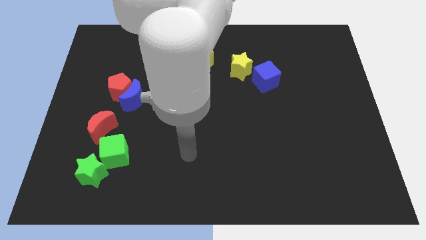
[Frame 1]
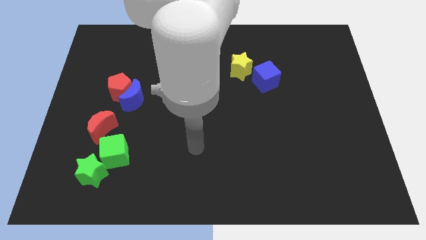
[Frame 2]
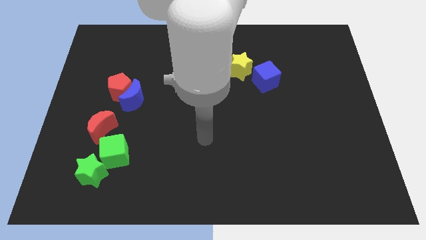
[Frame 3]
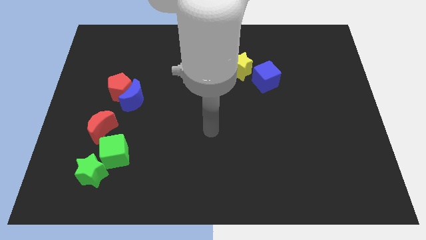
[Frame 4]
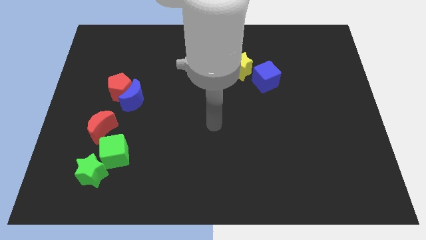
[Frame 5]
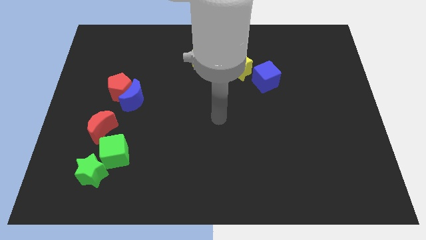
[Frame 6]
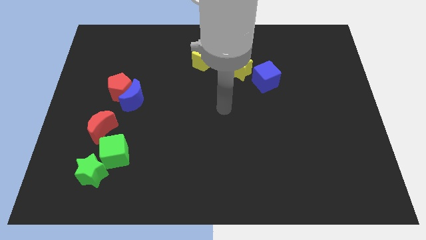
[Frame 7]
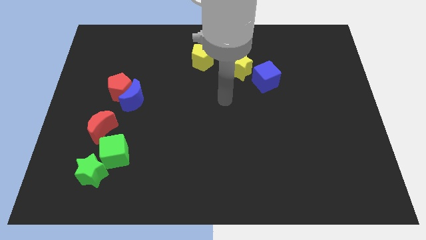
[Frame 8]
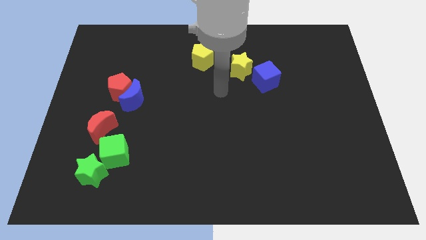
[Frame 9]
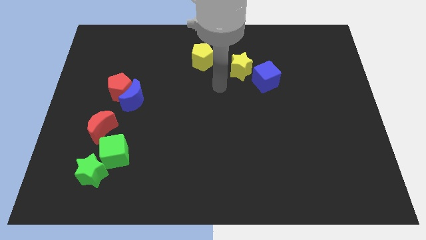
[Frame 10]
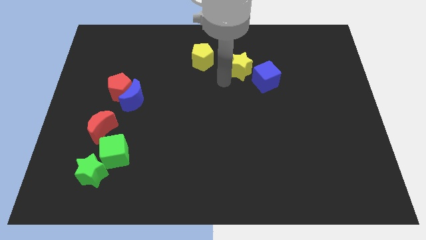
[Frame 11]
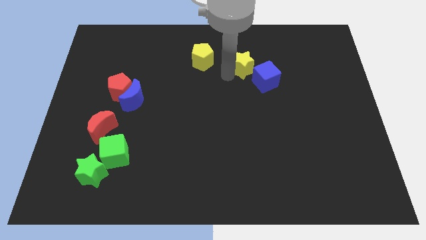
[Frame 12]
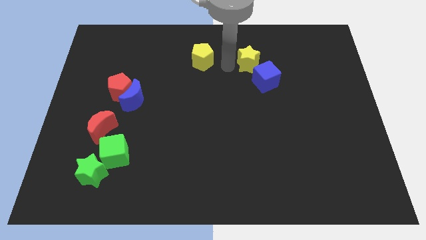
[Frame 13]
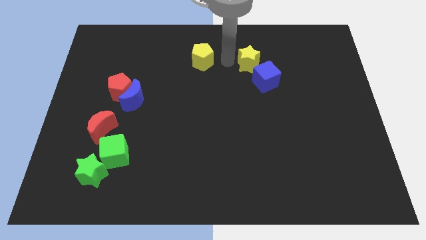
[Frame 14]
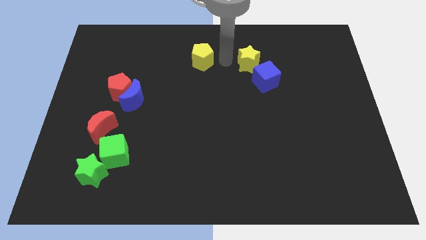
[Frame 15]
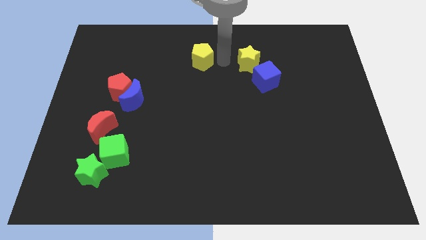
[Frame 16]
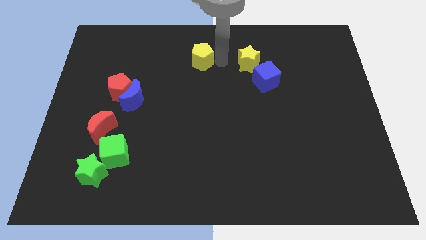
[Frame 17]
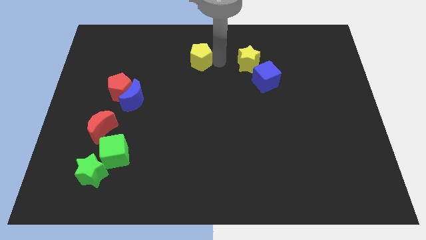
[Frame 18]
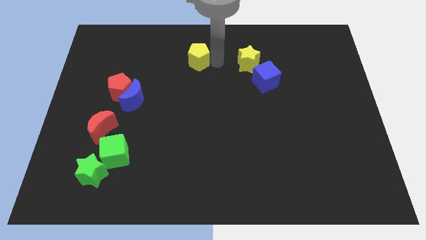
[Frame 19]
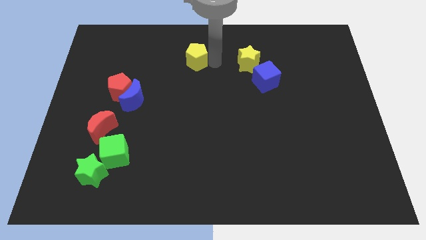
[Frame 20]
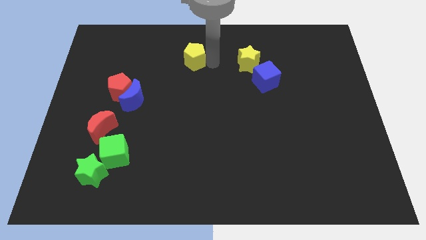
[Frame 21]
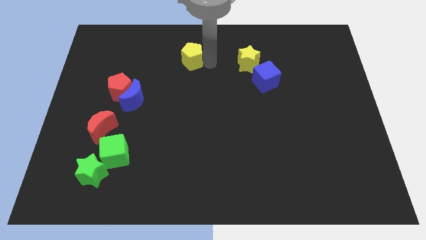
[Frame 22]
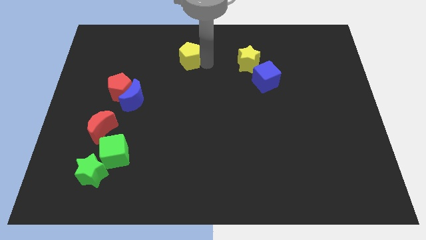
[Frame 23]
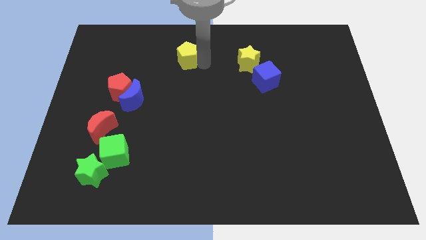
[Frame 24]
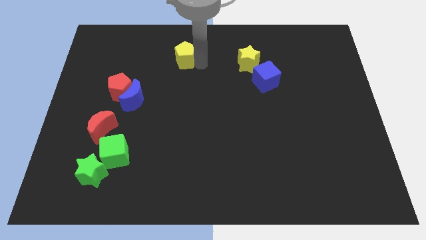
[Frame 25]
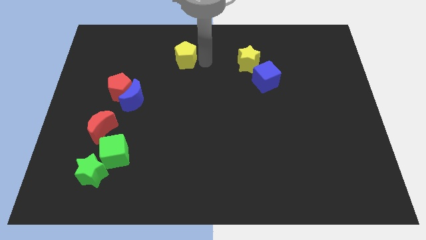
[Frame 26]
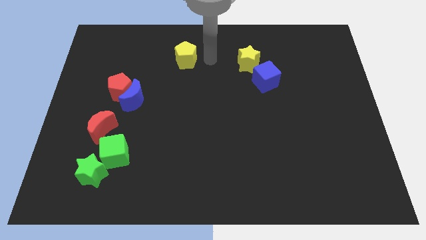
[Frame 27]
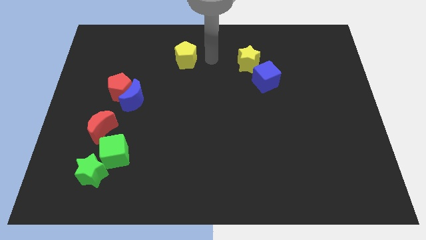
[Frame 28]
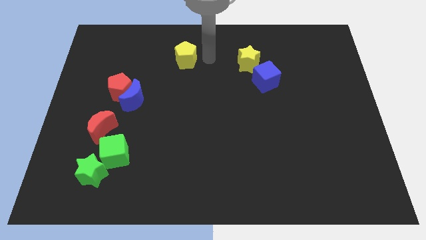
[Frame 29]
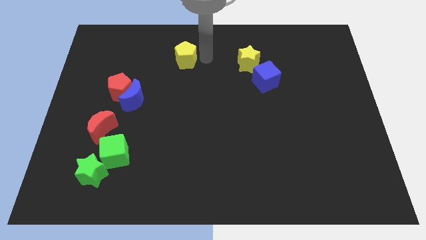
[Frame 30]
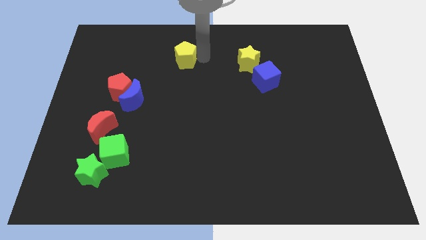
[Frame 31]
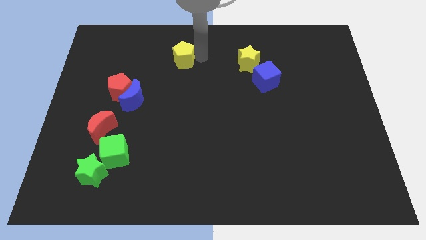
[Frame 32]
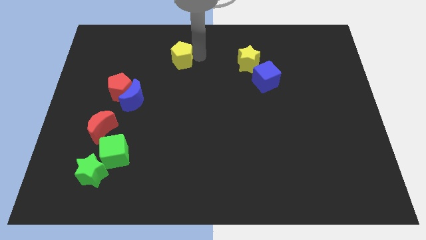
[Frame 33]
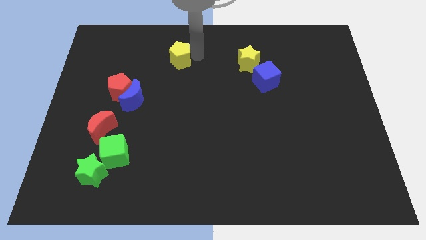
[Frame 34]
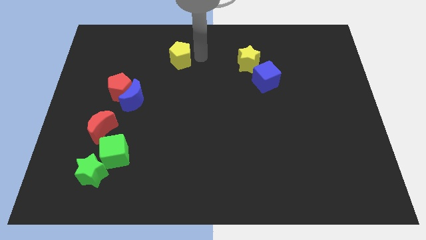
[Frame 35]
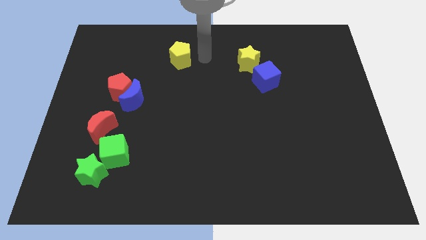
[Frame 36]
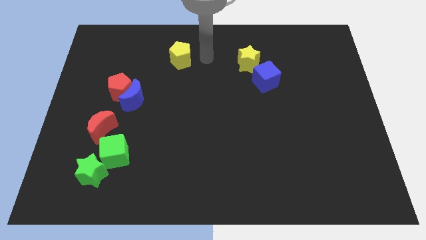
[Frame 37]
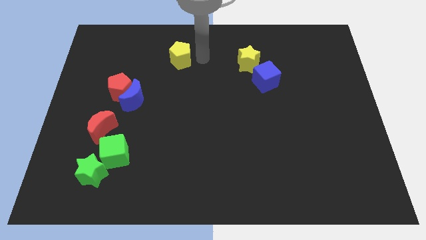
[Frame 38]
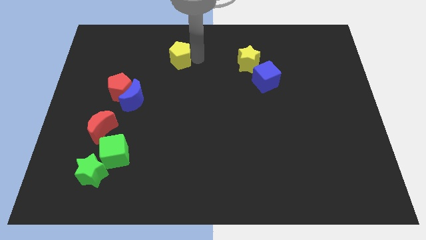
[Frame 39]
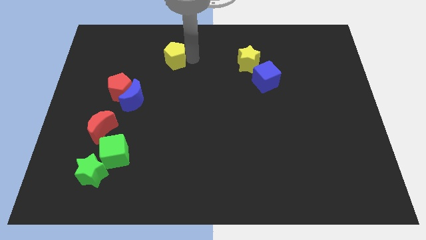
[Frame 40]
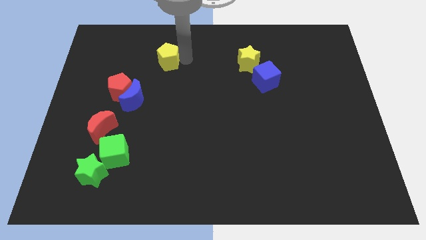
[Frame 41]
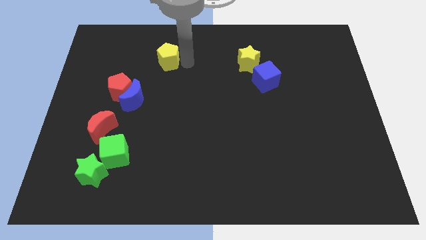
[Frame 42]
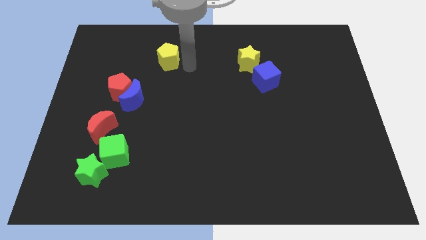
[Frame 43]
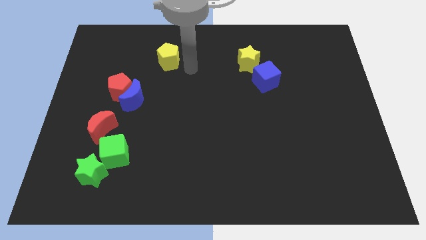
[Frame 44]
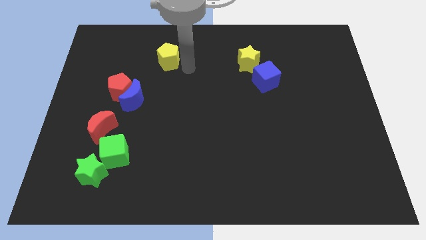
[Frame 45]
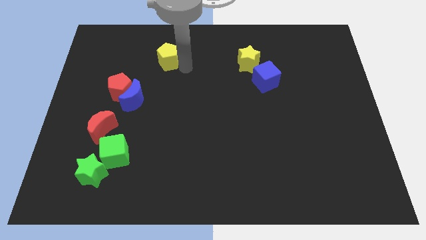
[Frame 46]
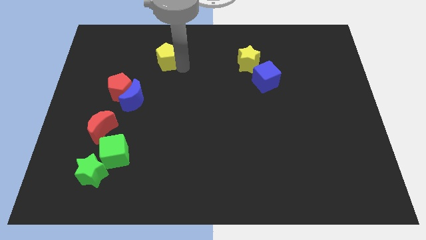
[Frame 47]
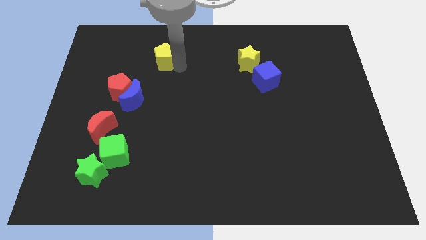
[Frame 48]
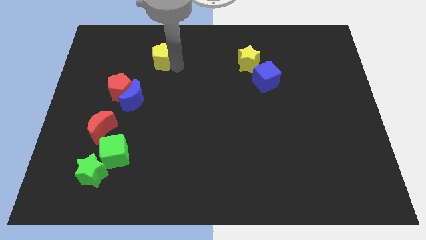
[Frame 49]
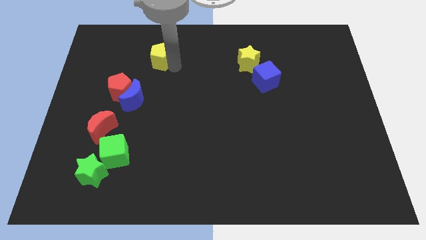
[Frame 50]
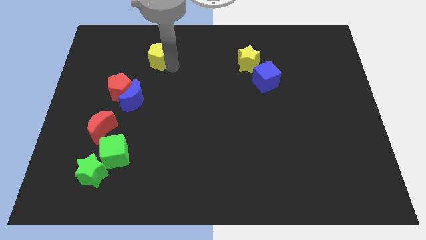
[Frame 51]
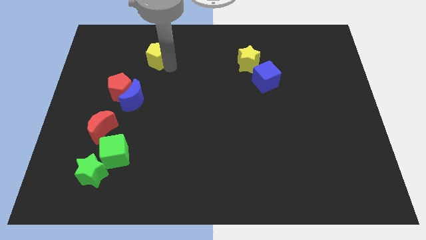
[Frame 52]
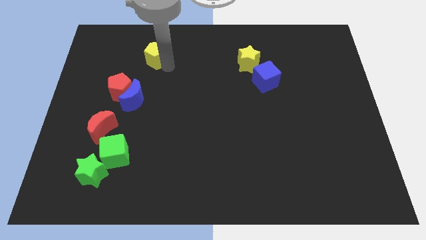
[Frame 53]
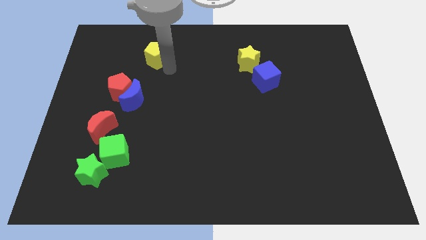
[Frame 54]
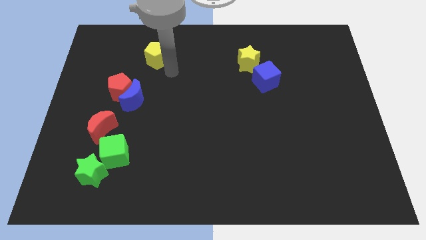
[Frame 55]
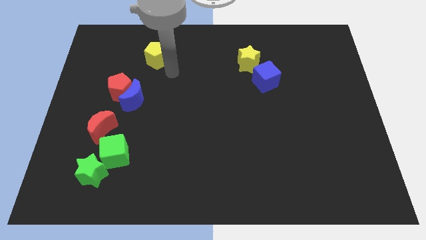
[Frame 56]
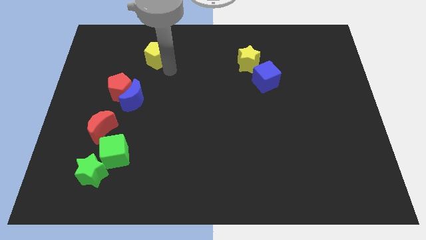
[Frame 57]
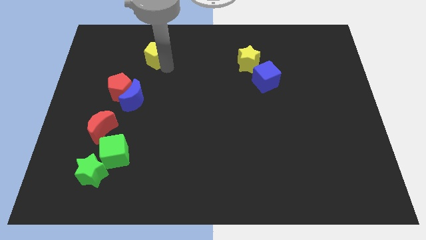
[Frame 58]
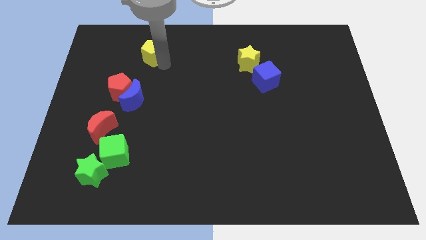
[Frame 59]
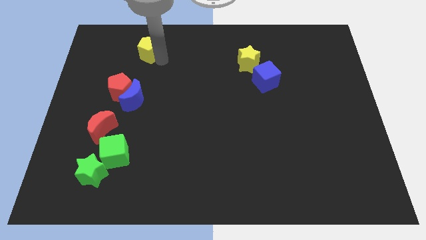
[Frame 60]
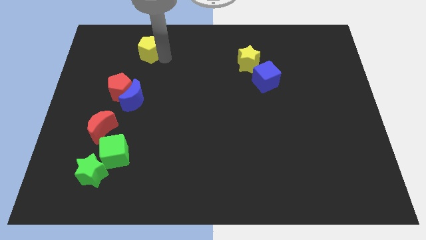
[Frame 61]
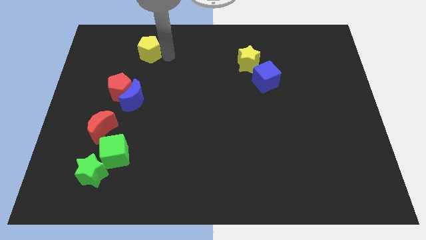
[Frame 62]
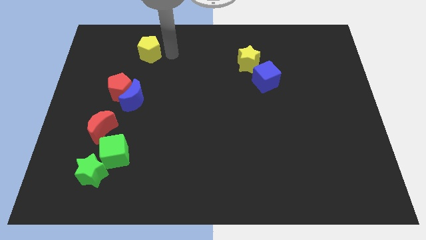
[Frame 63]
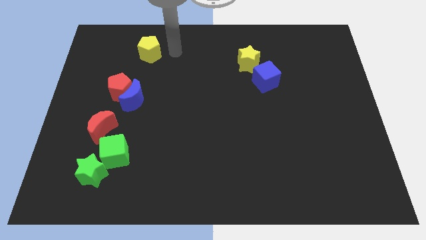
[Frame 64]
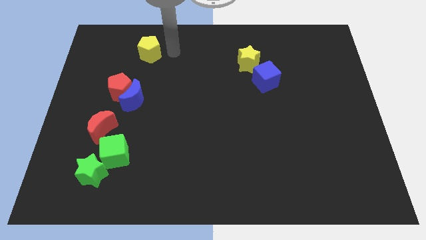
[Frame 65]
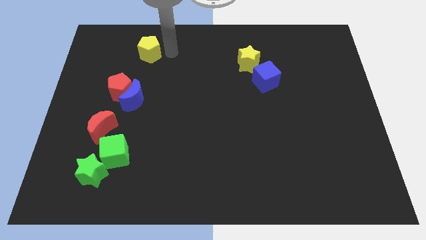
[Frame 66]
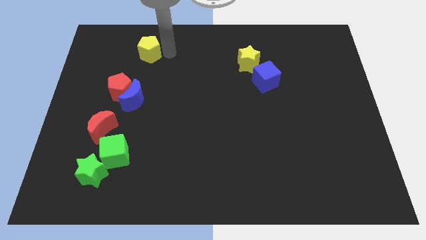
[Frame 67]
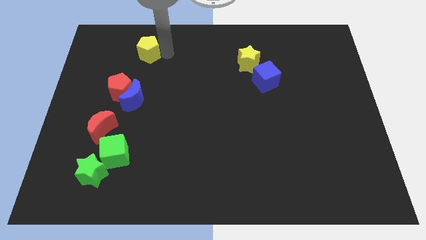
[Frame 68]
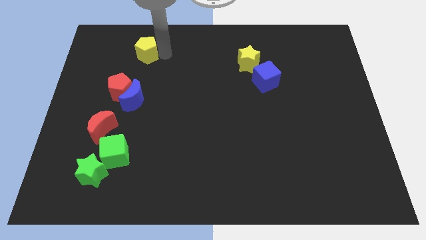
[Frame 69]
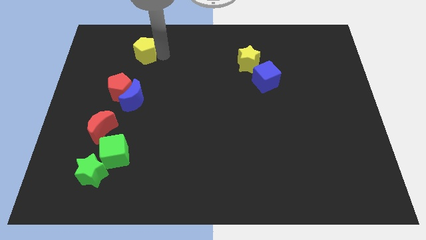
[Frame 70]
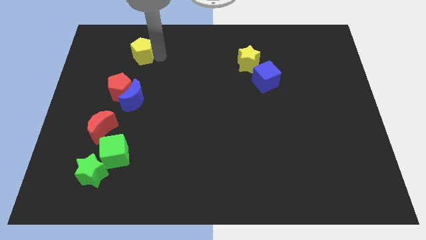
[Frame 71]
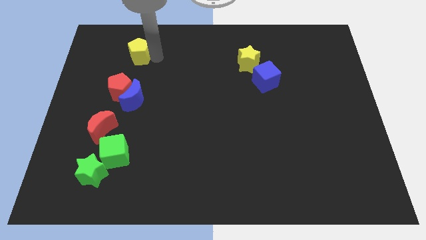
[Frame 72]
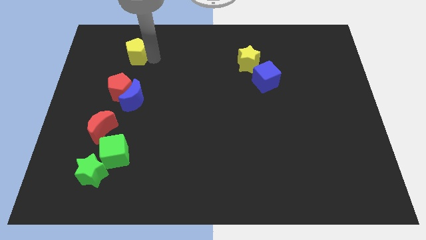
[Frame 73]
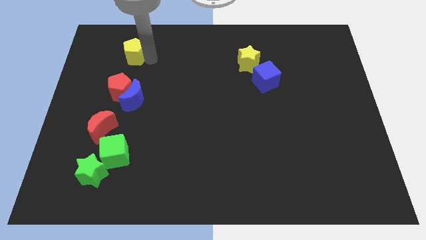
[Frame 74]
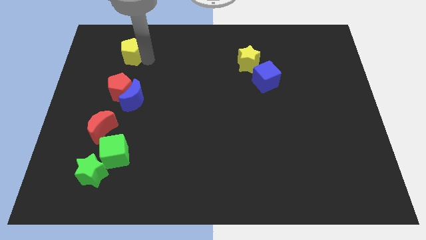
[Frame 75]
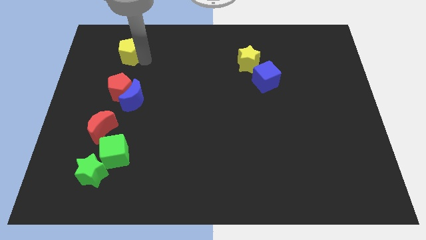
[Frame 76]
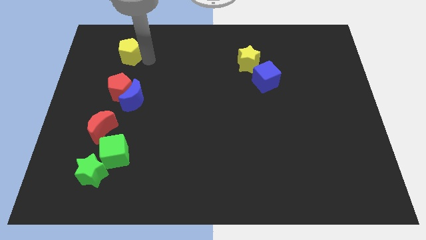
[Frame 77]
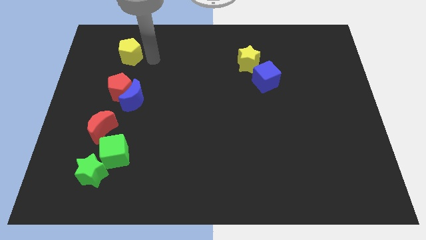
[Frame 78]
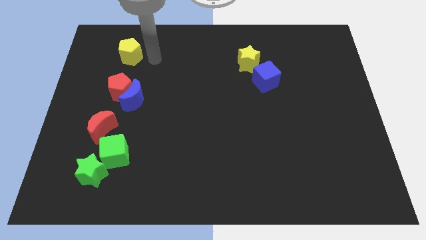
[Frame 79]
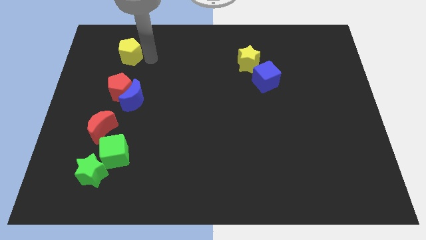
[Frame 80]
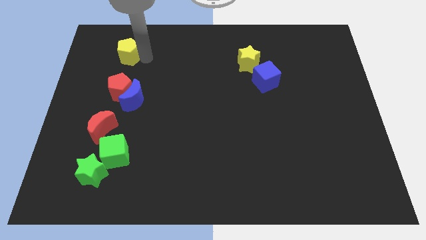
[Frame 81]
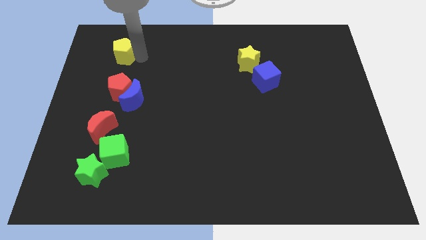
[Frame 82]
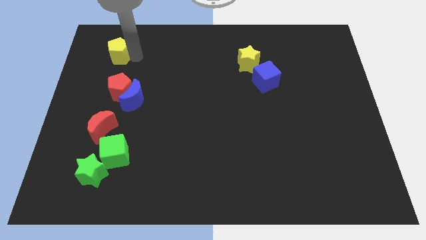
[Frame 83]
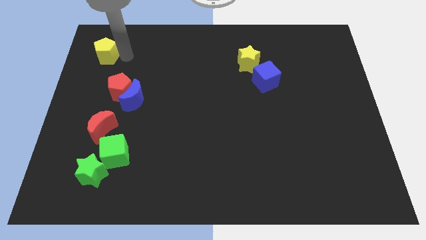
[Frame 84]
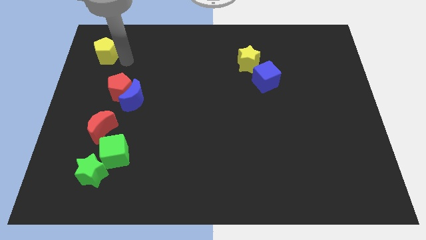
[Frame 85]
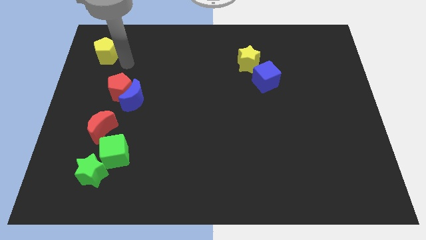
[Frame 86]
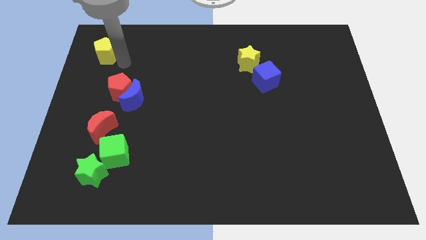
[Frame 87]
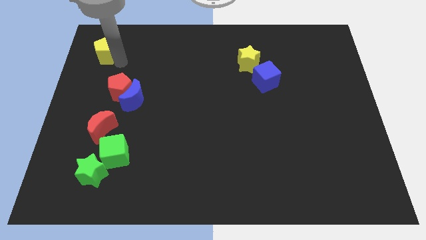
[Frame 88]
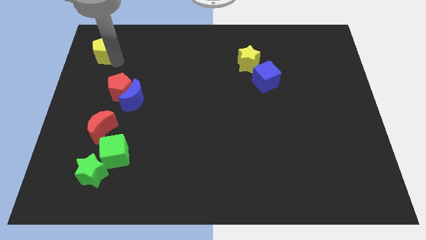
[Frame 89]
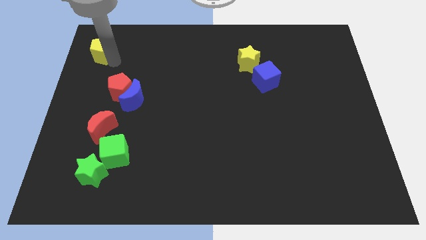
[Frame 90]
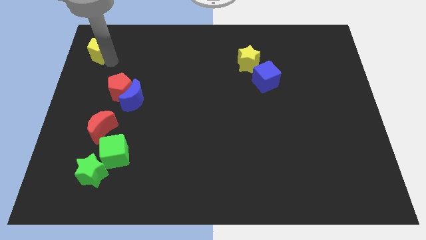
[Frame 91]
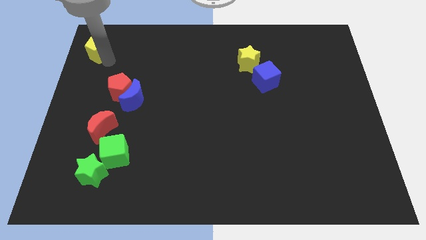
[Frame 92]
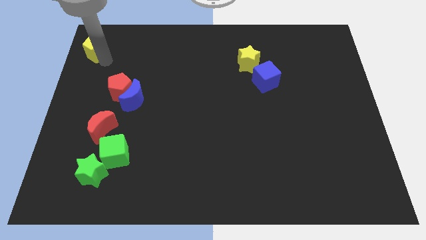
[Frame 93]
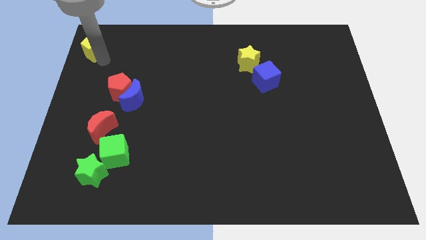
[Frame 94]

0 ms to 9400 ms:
push the yellow pentagon to the top left corner
